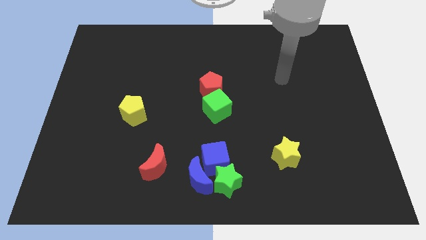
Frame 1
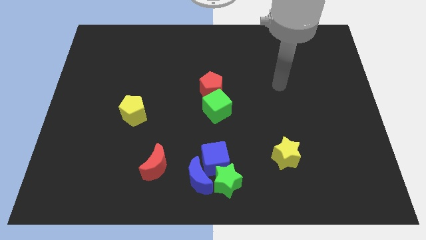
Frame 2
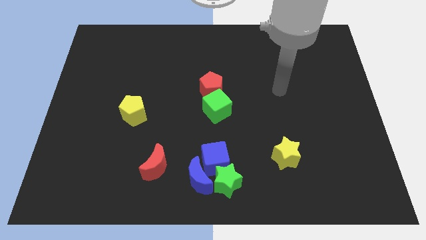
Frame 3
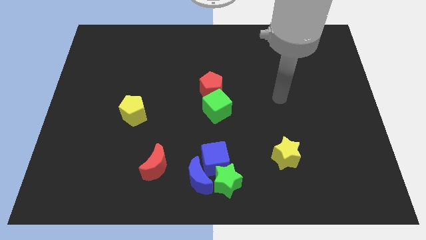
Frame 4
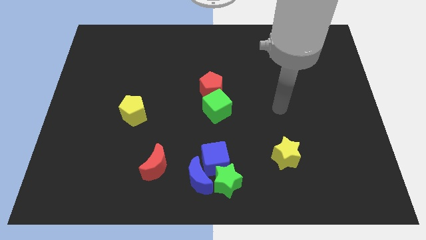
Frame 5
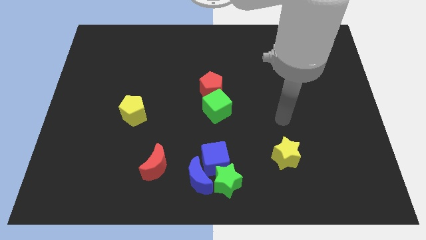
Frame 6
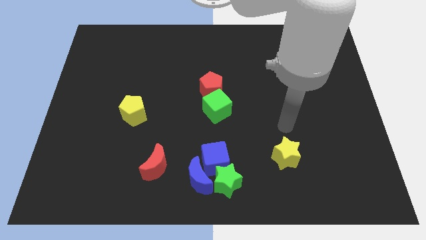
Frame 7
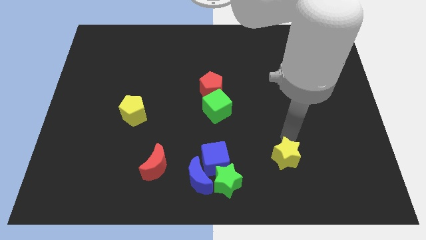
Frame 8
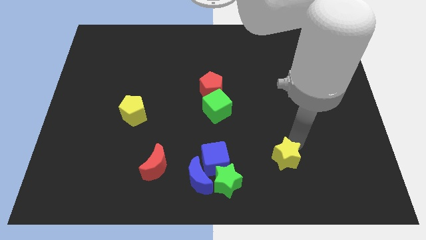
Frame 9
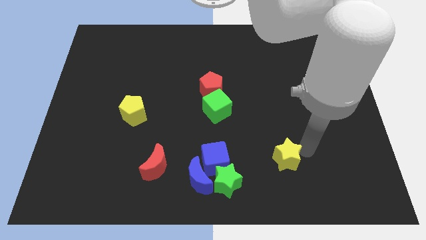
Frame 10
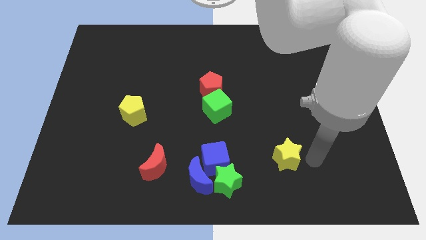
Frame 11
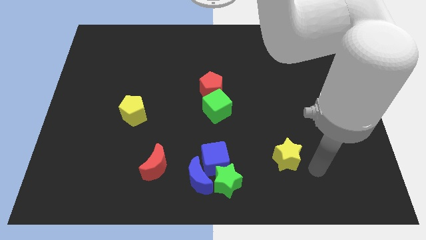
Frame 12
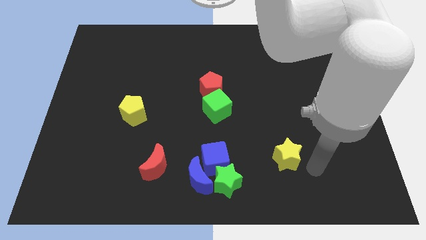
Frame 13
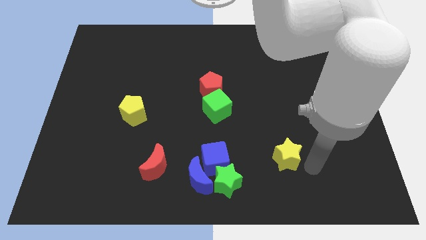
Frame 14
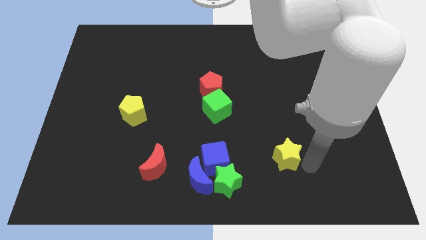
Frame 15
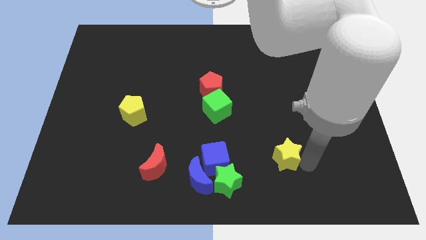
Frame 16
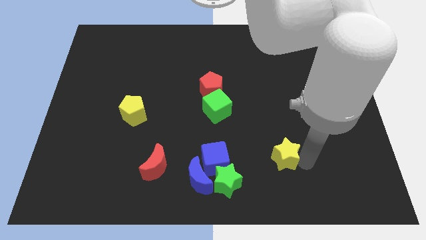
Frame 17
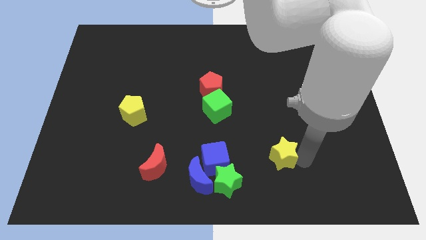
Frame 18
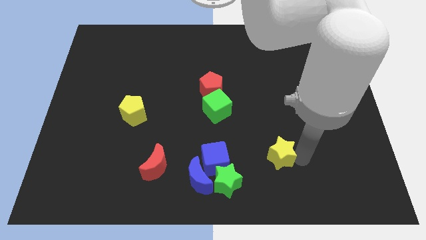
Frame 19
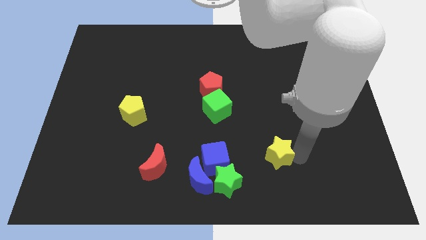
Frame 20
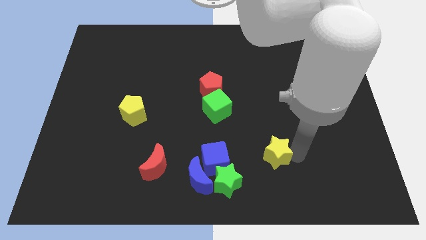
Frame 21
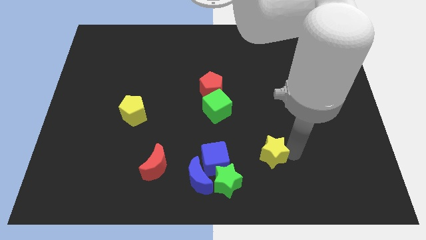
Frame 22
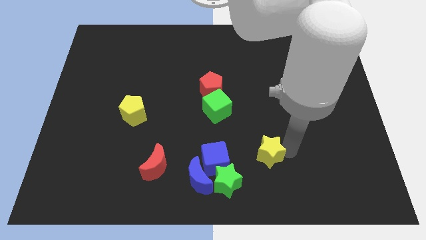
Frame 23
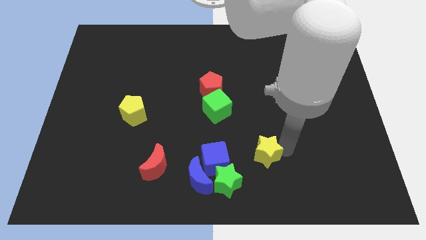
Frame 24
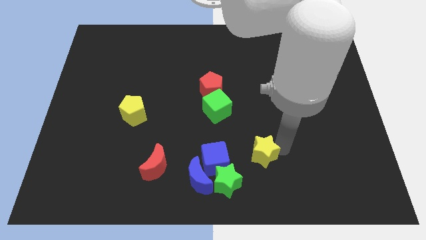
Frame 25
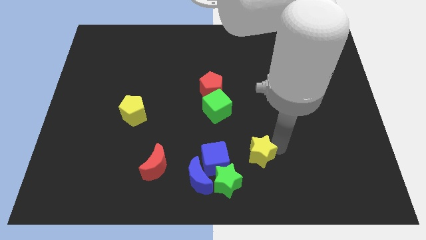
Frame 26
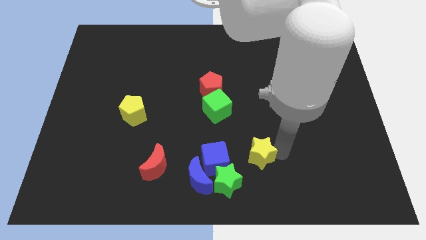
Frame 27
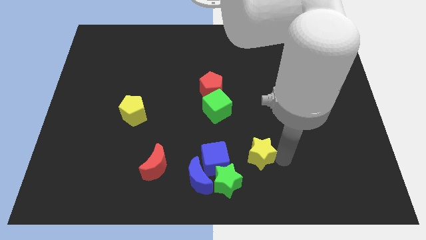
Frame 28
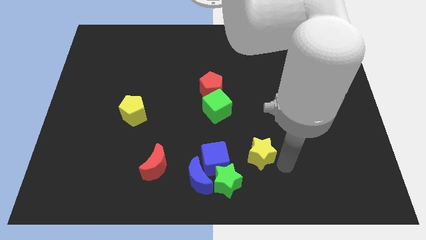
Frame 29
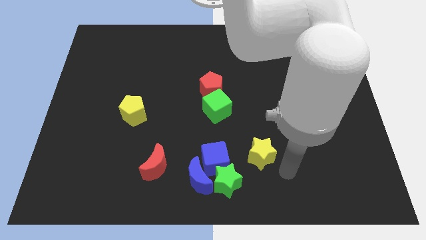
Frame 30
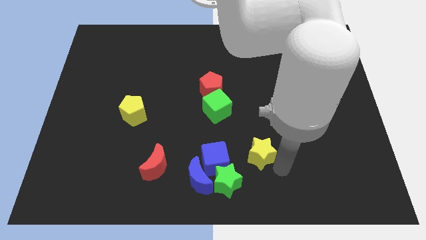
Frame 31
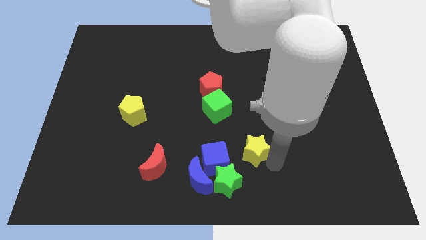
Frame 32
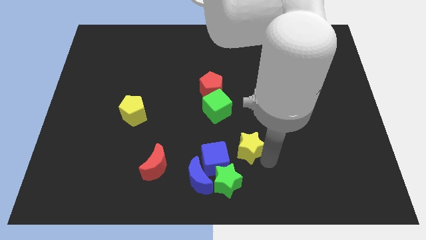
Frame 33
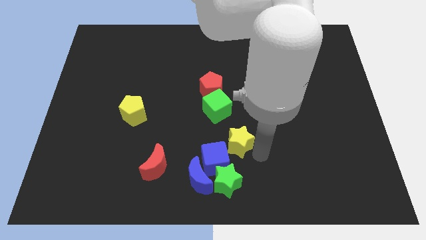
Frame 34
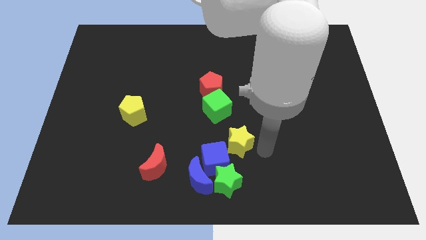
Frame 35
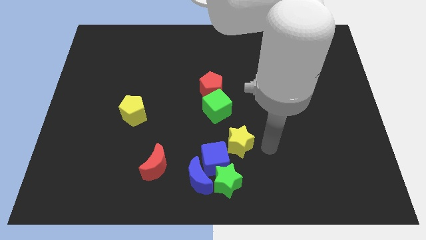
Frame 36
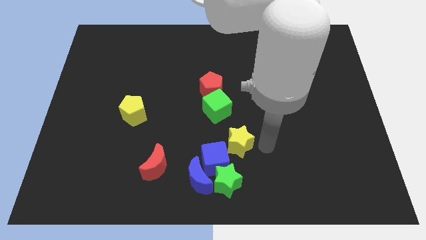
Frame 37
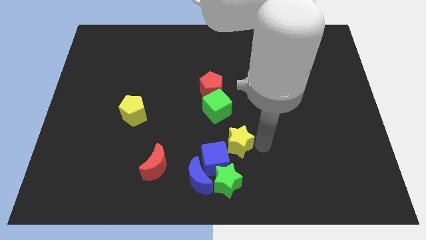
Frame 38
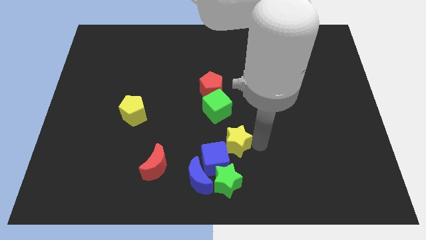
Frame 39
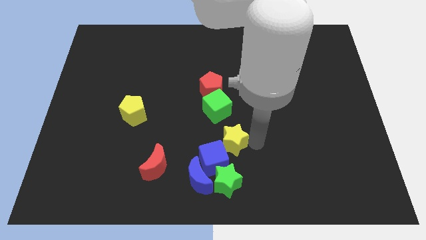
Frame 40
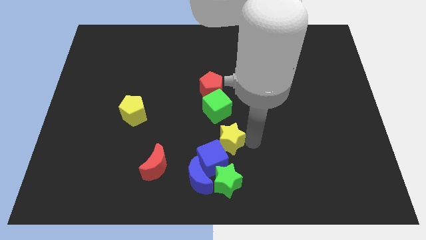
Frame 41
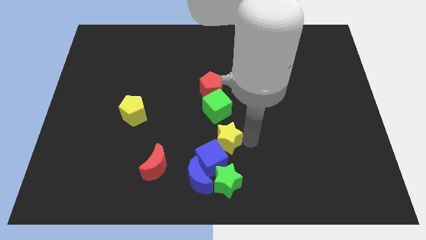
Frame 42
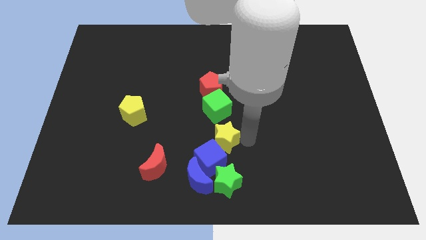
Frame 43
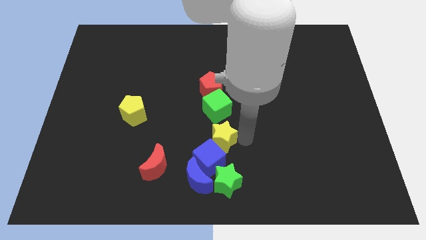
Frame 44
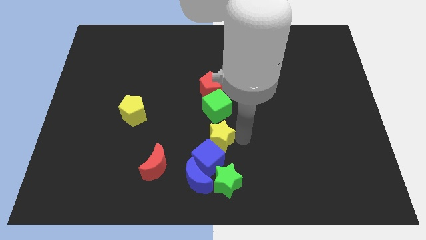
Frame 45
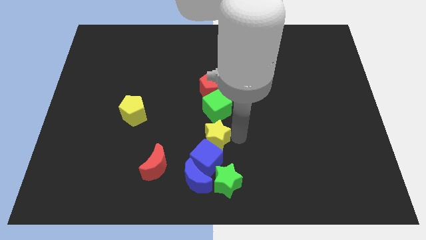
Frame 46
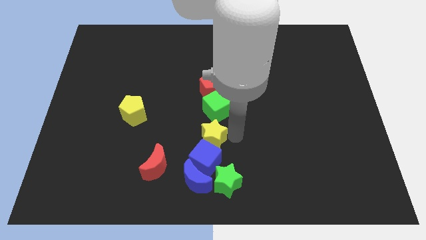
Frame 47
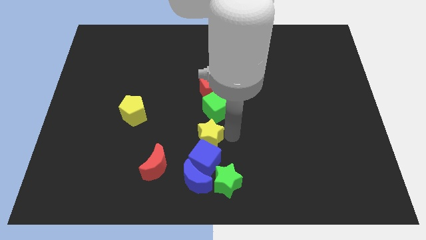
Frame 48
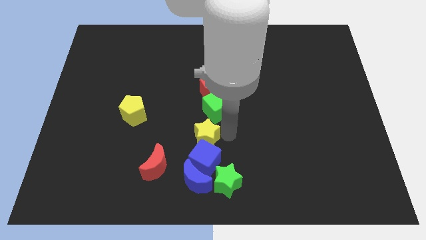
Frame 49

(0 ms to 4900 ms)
slide the yellow star to the top right of the red moon

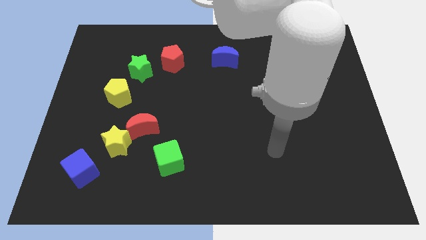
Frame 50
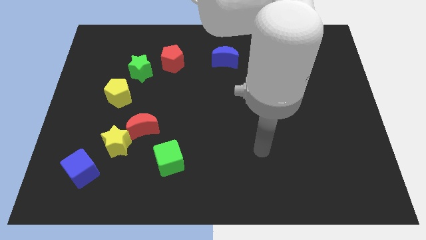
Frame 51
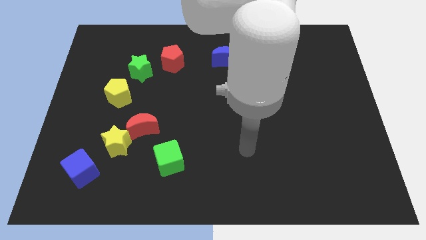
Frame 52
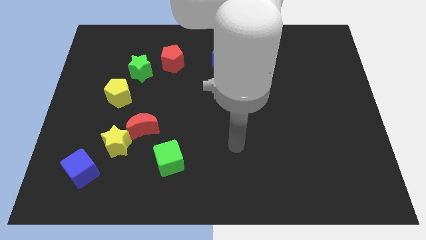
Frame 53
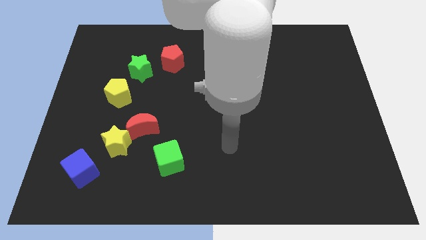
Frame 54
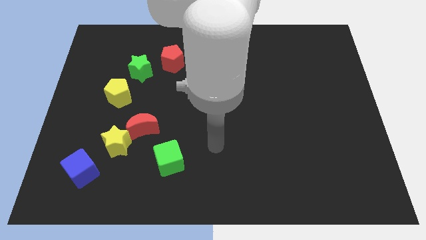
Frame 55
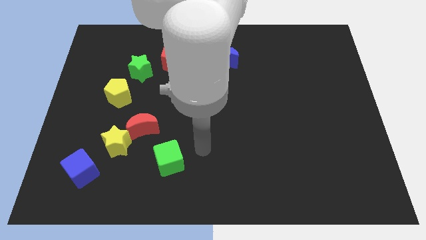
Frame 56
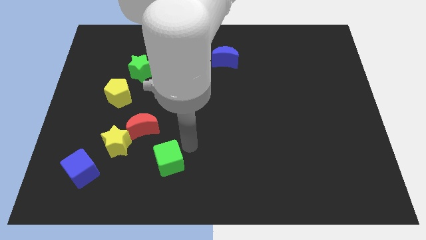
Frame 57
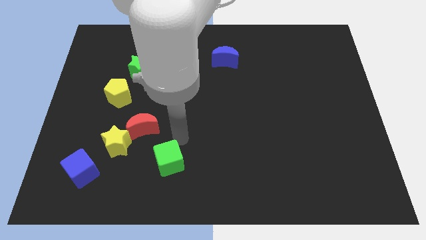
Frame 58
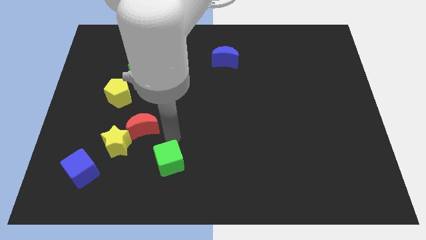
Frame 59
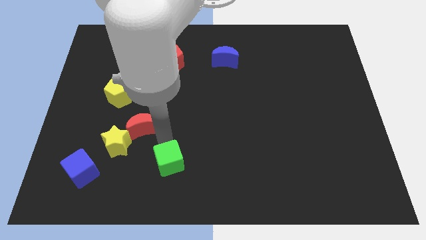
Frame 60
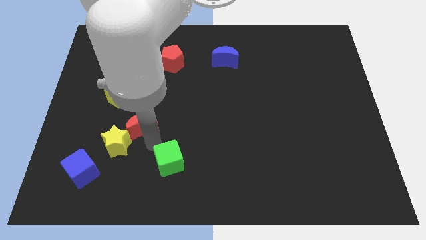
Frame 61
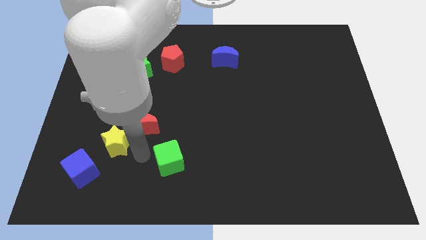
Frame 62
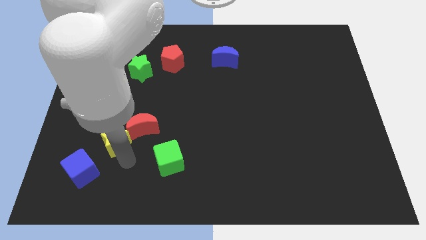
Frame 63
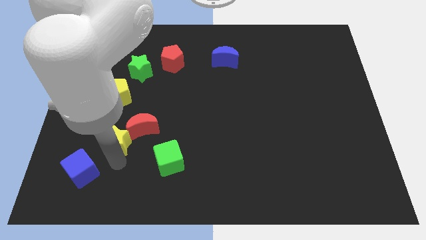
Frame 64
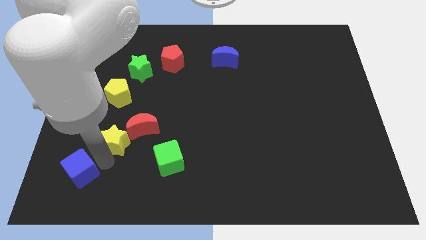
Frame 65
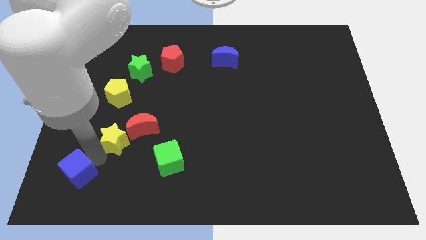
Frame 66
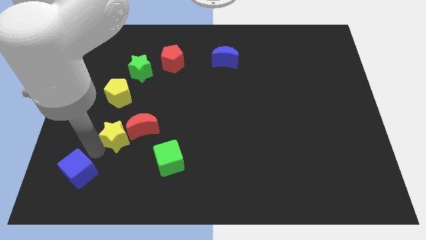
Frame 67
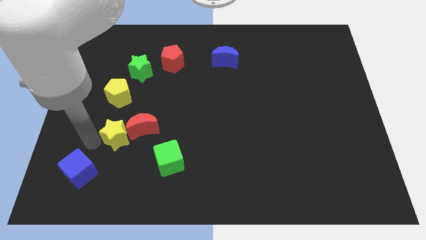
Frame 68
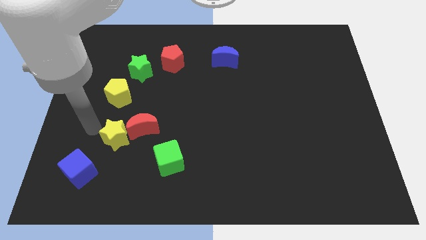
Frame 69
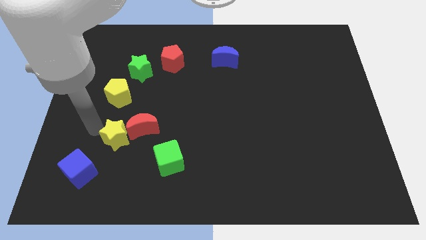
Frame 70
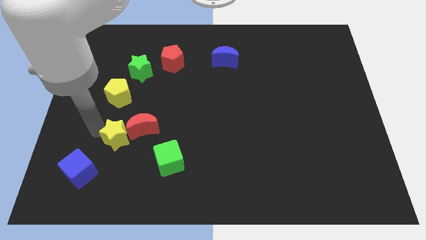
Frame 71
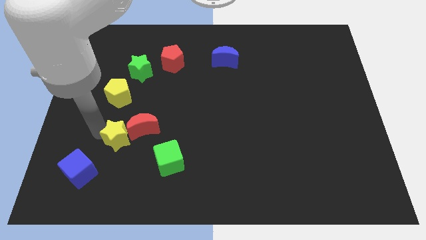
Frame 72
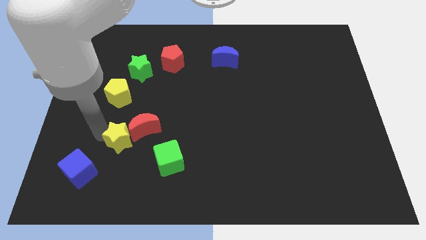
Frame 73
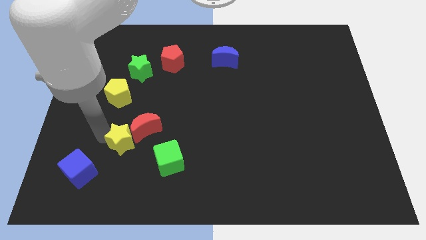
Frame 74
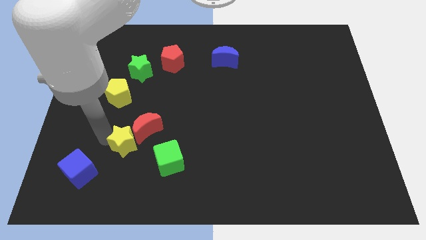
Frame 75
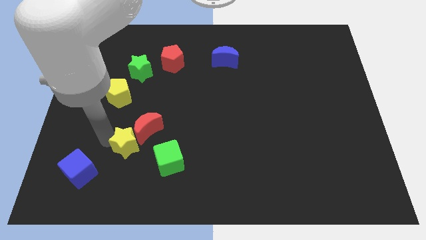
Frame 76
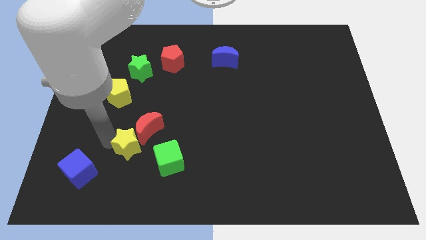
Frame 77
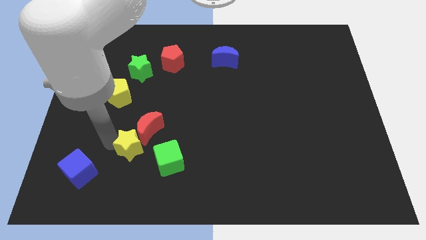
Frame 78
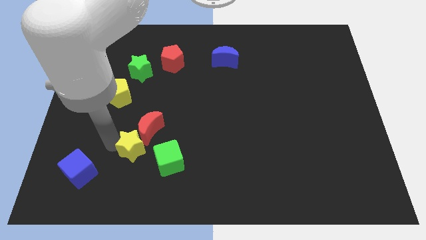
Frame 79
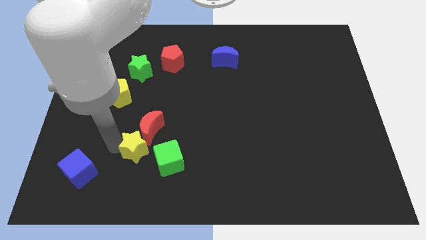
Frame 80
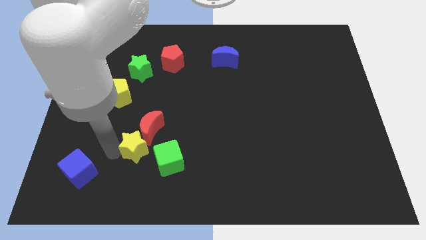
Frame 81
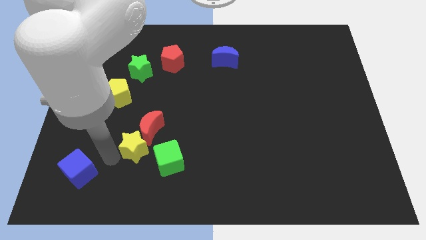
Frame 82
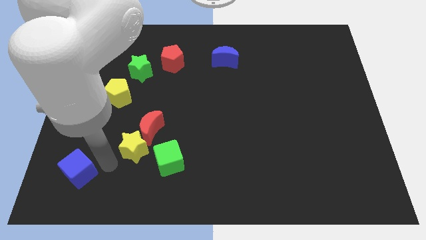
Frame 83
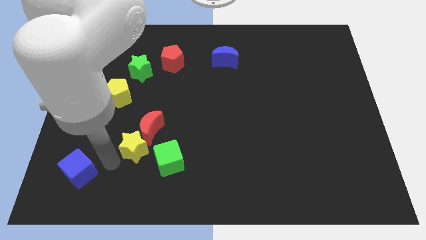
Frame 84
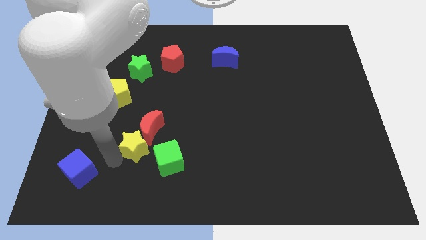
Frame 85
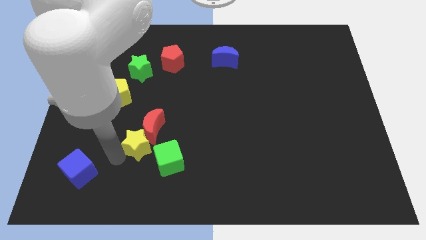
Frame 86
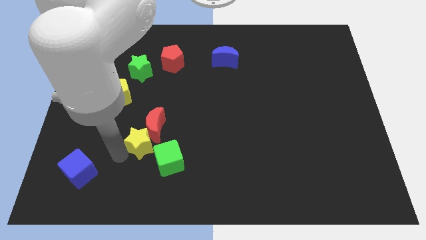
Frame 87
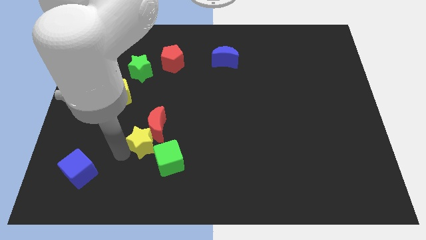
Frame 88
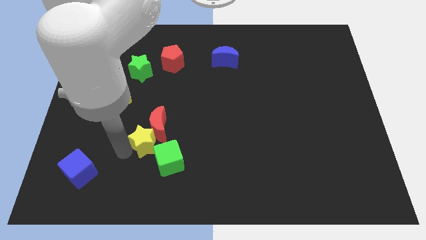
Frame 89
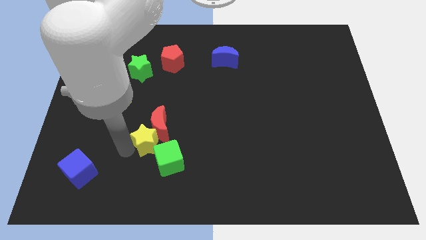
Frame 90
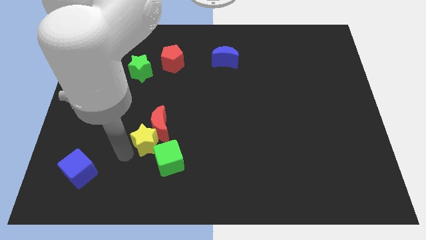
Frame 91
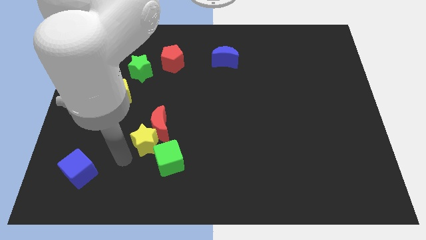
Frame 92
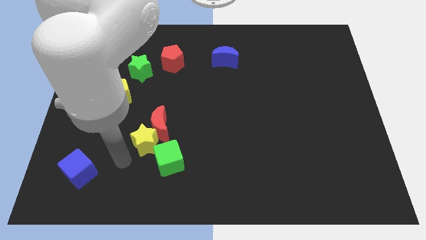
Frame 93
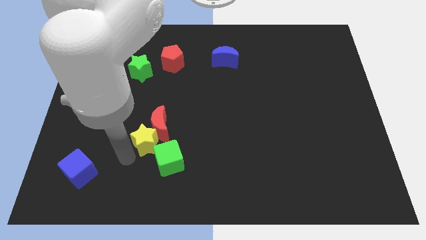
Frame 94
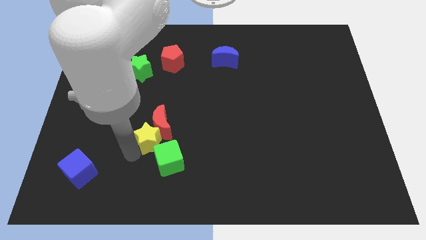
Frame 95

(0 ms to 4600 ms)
put the yellow star to the top side of the green cube
